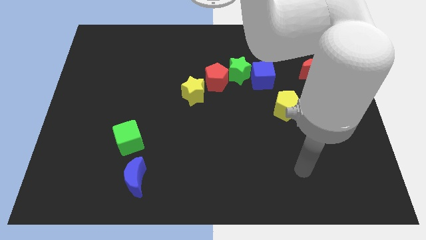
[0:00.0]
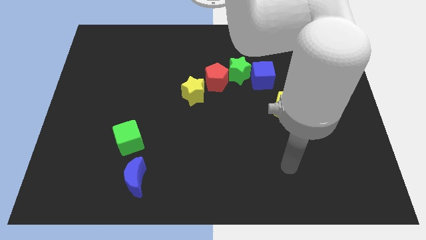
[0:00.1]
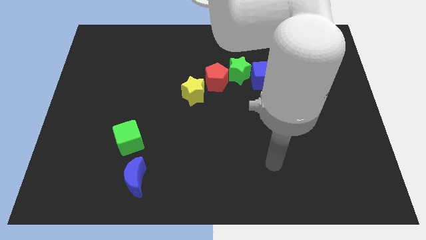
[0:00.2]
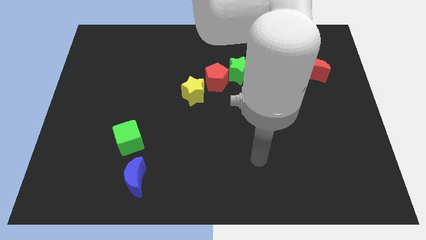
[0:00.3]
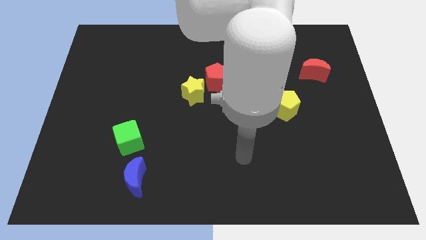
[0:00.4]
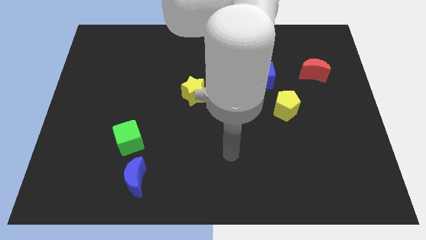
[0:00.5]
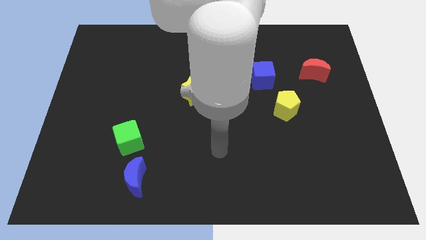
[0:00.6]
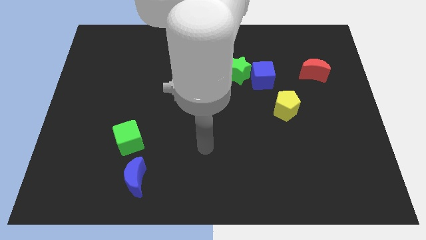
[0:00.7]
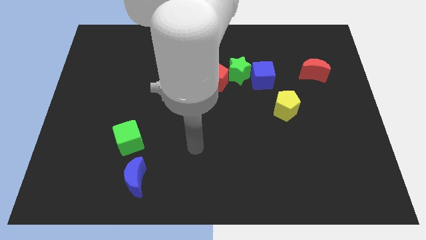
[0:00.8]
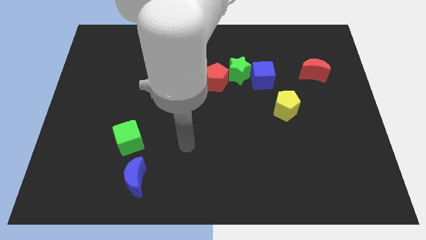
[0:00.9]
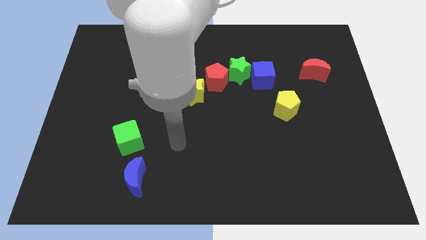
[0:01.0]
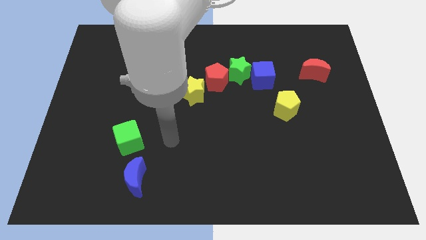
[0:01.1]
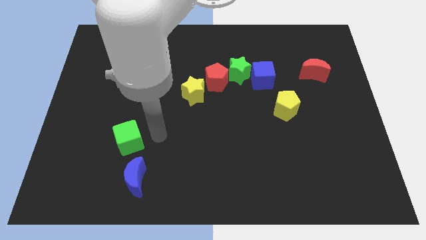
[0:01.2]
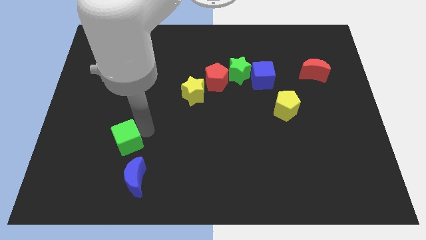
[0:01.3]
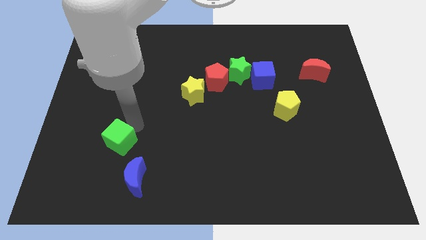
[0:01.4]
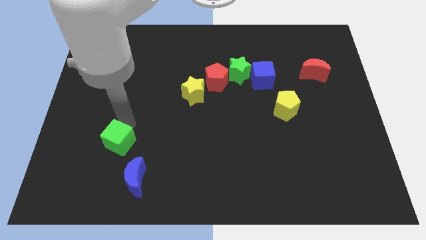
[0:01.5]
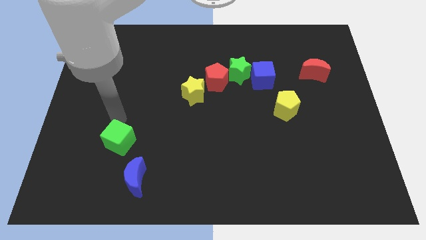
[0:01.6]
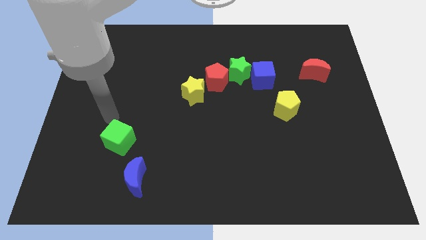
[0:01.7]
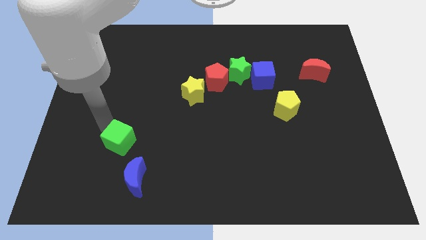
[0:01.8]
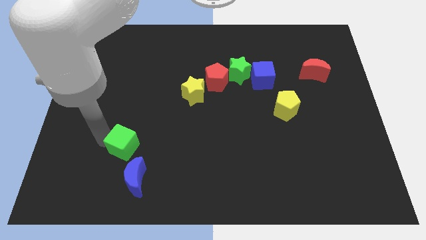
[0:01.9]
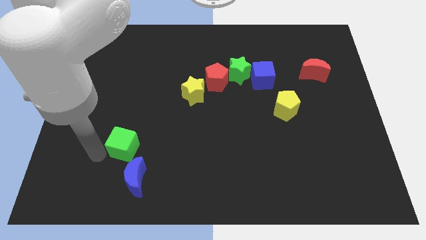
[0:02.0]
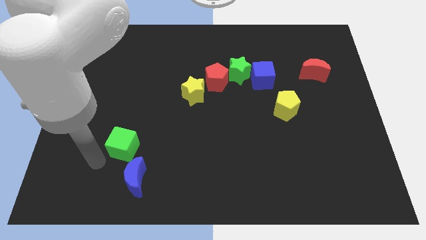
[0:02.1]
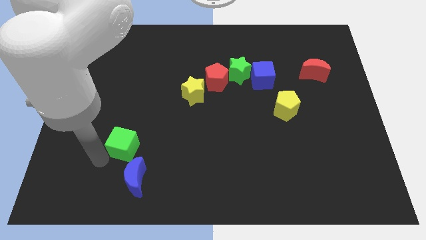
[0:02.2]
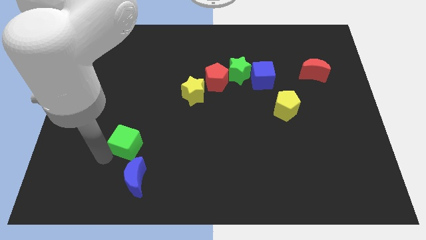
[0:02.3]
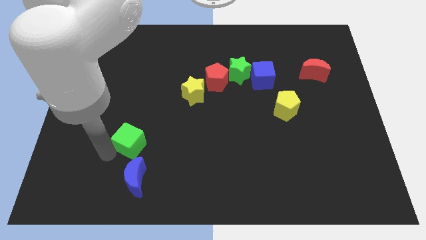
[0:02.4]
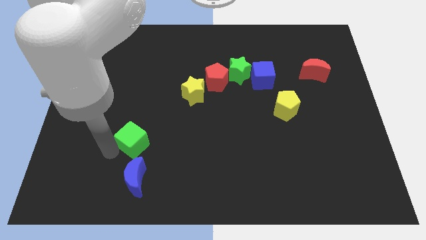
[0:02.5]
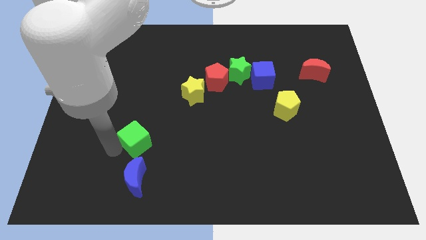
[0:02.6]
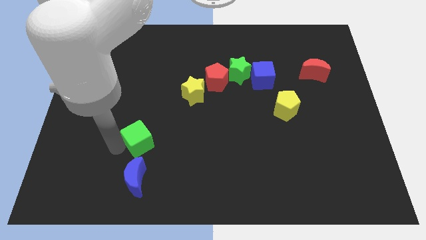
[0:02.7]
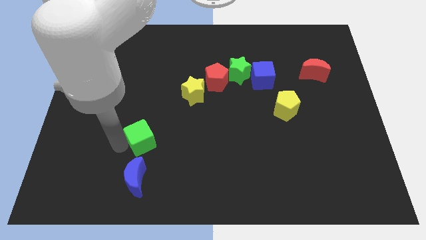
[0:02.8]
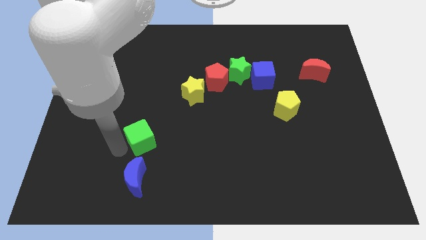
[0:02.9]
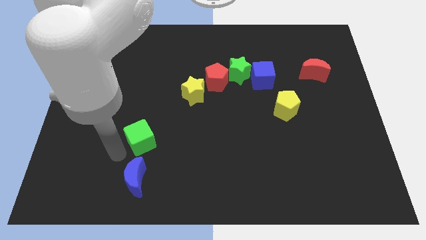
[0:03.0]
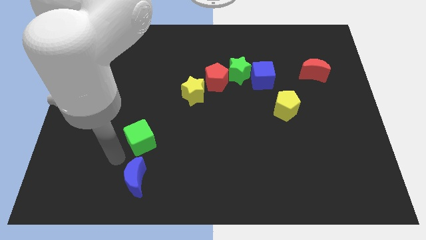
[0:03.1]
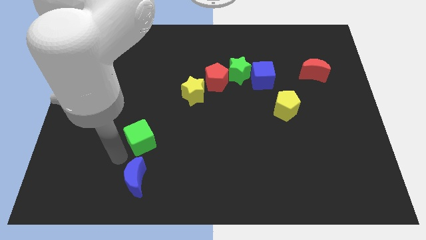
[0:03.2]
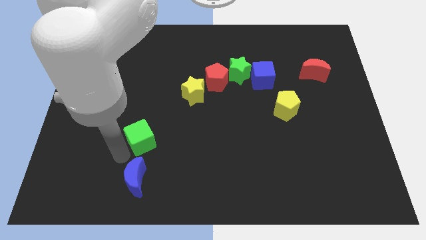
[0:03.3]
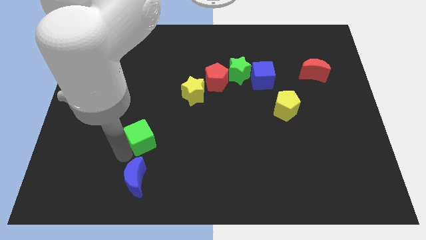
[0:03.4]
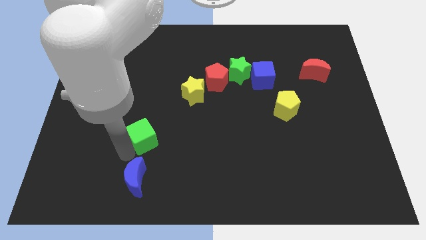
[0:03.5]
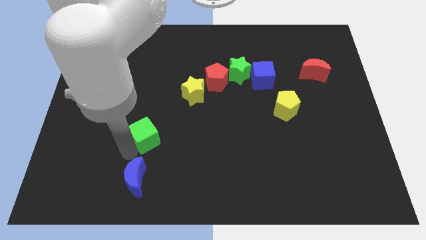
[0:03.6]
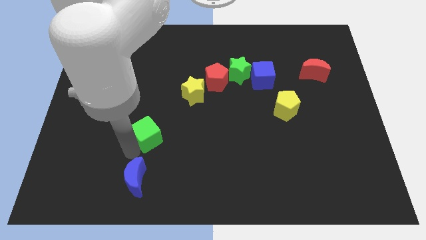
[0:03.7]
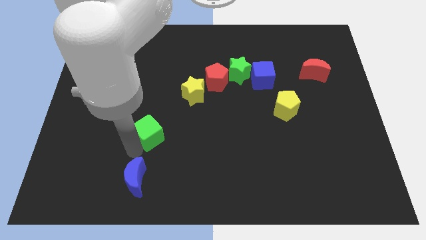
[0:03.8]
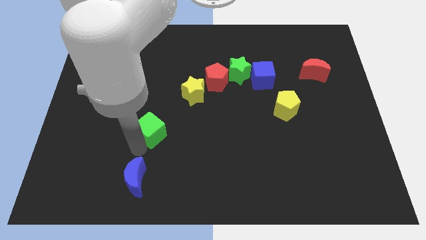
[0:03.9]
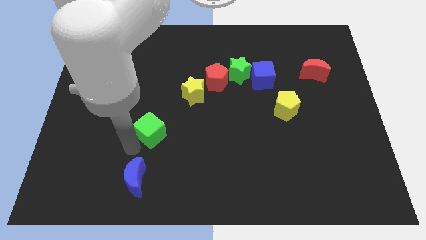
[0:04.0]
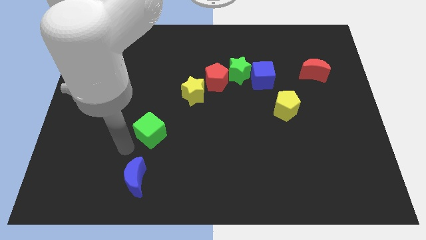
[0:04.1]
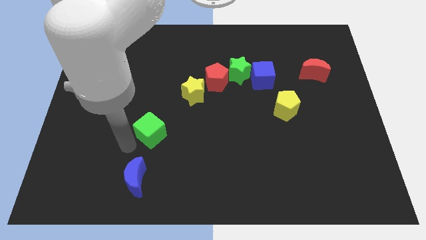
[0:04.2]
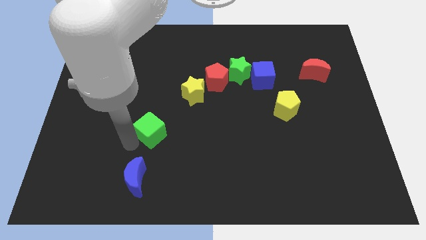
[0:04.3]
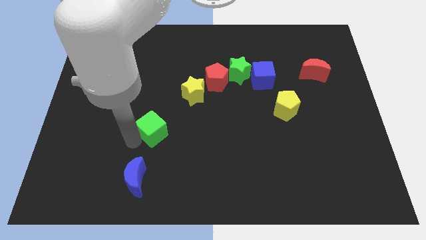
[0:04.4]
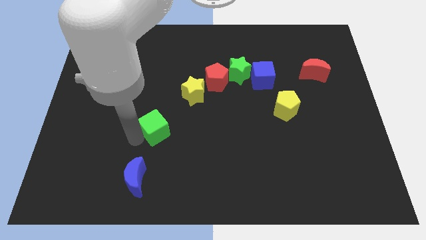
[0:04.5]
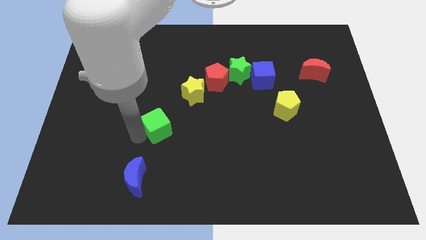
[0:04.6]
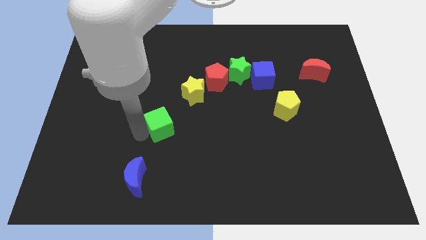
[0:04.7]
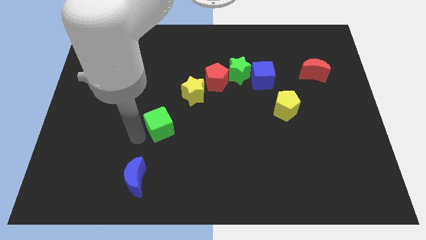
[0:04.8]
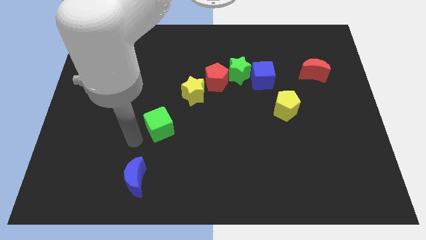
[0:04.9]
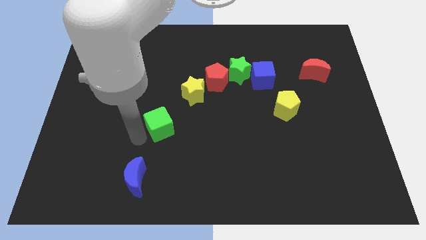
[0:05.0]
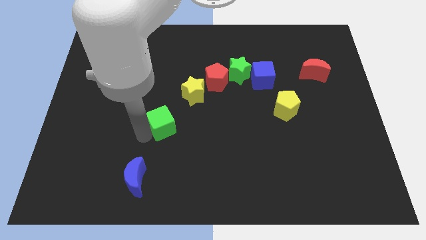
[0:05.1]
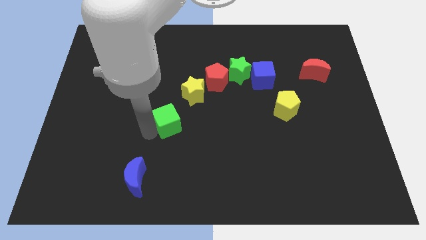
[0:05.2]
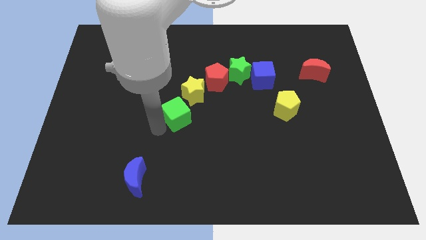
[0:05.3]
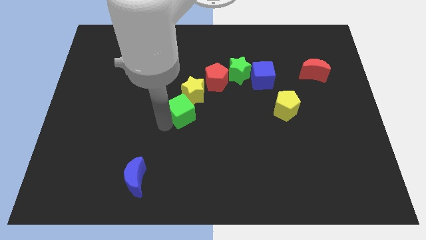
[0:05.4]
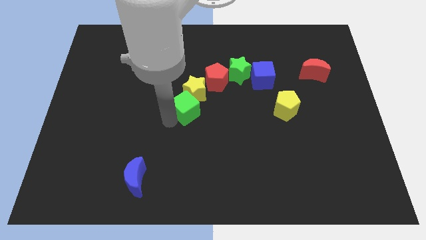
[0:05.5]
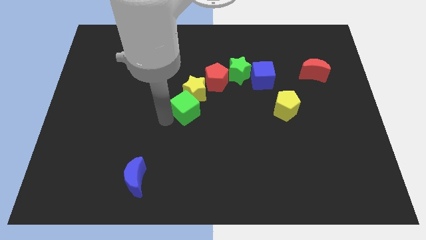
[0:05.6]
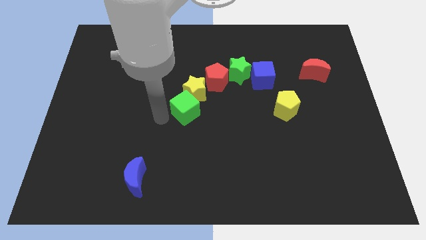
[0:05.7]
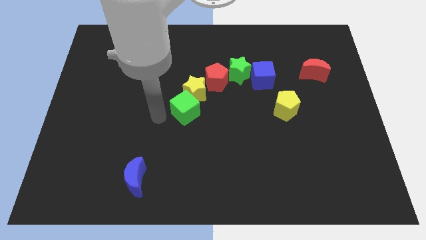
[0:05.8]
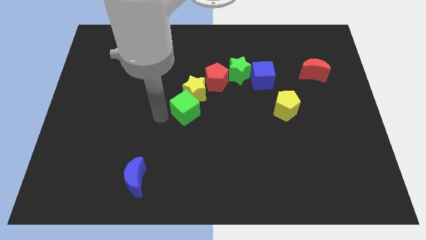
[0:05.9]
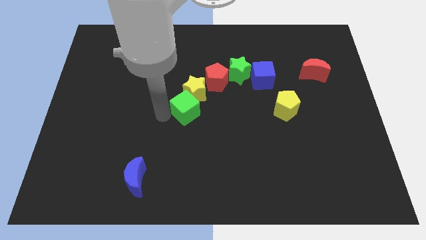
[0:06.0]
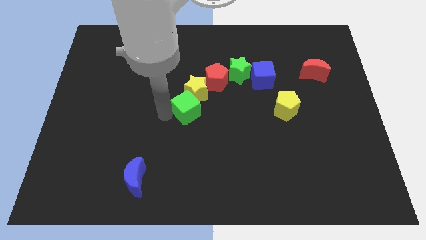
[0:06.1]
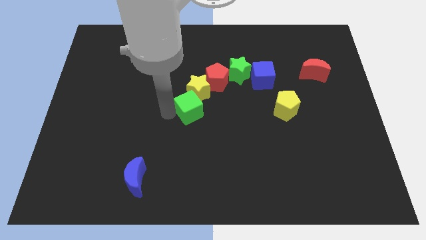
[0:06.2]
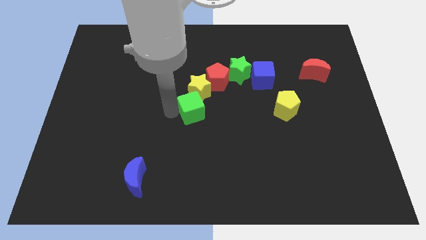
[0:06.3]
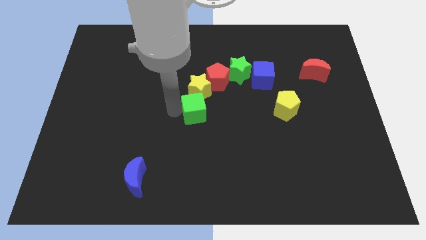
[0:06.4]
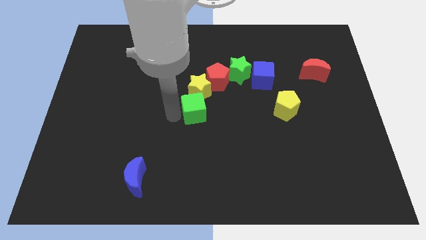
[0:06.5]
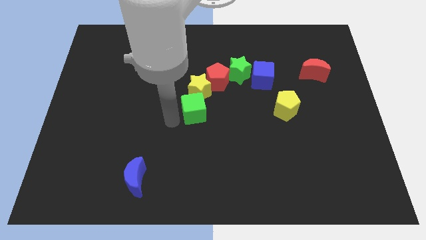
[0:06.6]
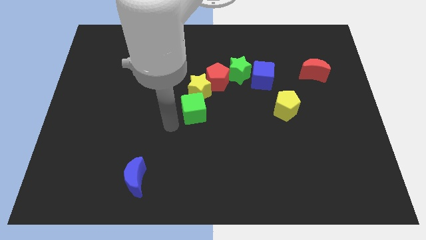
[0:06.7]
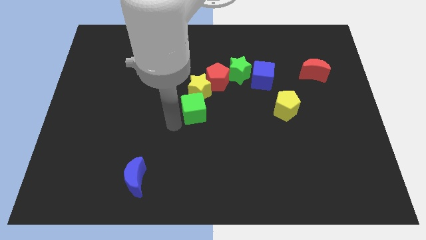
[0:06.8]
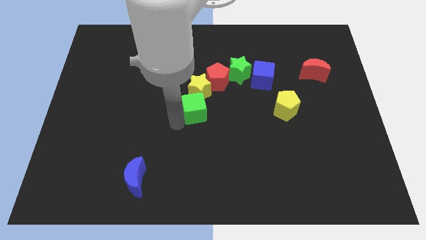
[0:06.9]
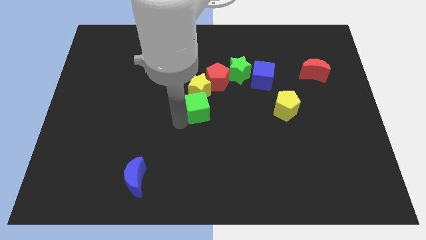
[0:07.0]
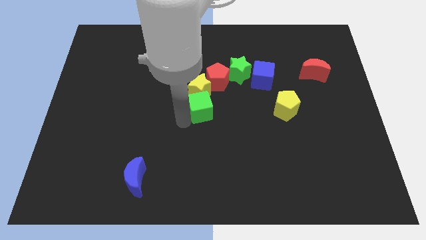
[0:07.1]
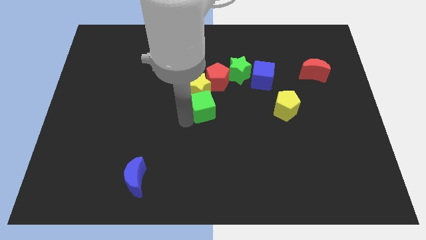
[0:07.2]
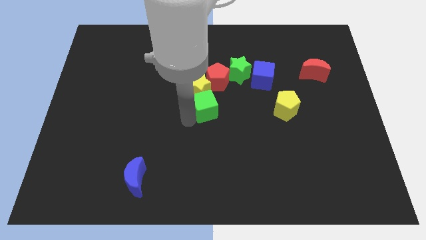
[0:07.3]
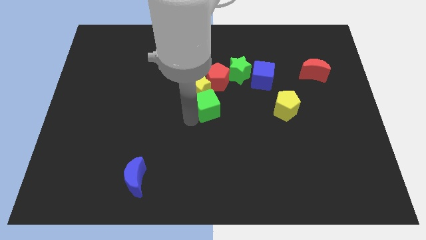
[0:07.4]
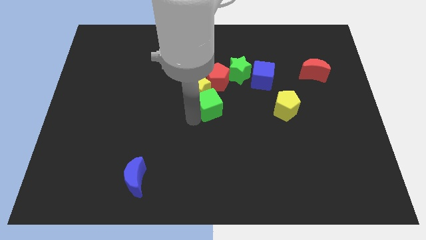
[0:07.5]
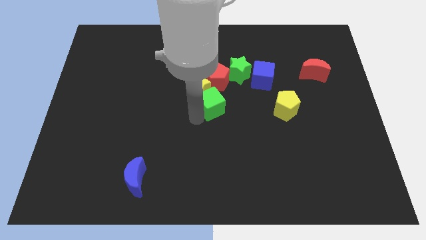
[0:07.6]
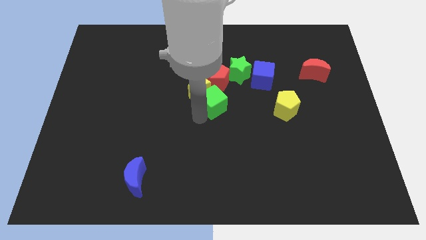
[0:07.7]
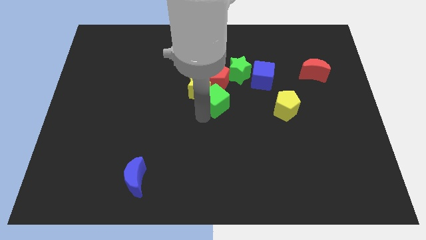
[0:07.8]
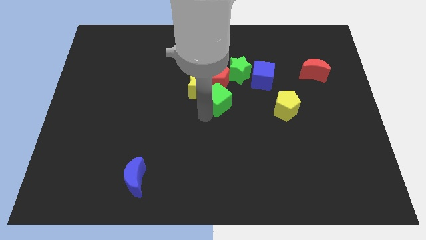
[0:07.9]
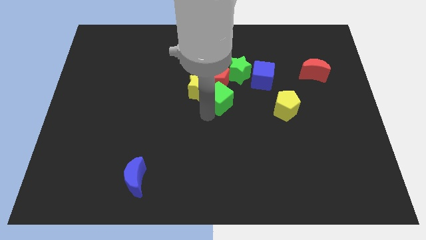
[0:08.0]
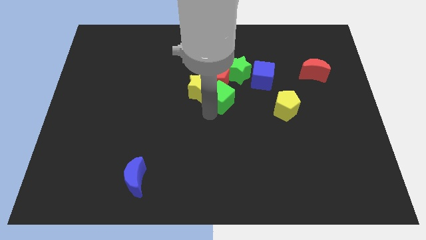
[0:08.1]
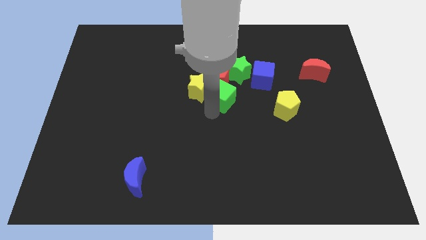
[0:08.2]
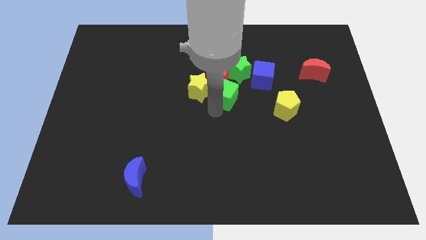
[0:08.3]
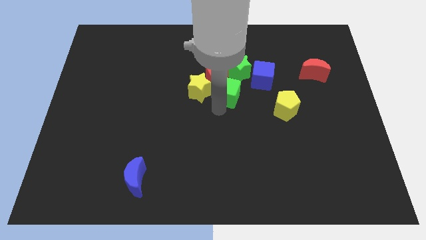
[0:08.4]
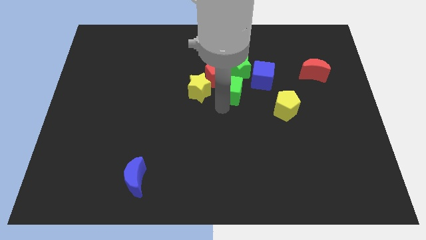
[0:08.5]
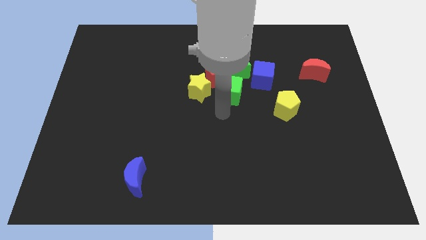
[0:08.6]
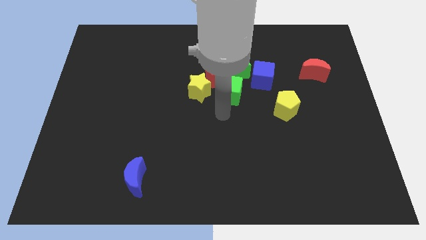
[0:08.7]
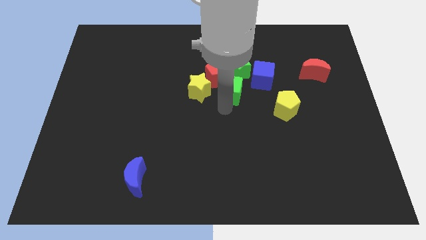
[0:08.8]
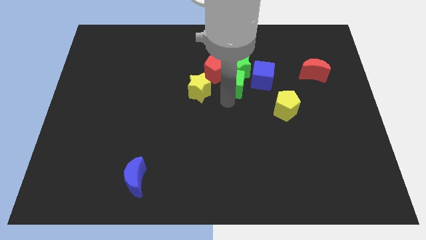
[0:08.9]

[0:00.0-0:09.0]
slide the green cube to the green star

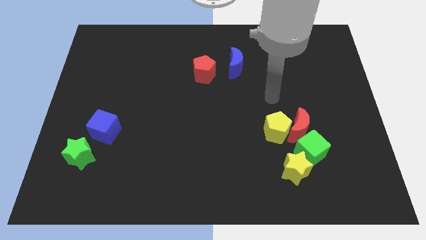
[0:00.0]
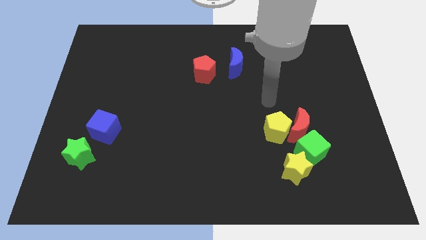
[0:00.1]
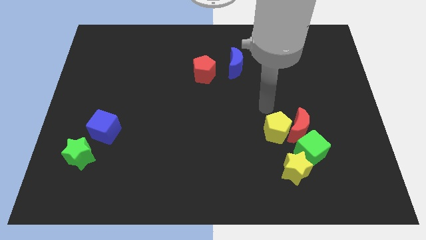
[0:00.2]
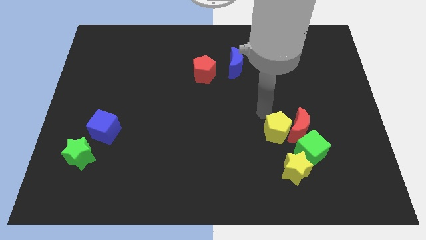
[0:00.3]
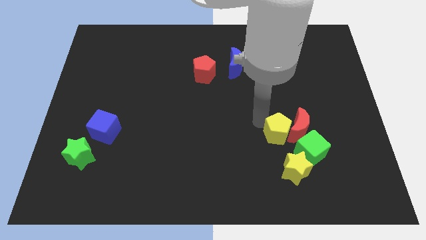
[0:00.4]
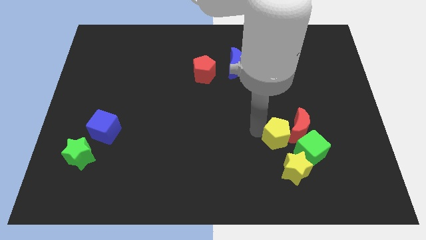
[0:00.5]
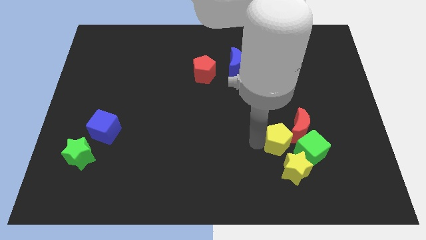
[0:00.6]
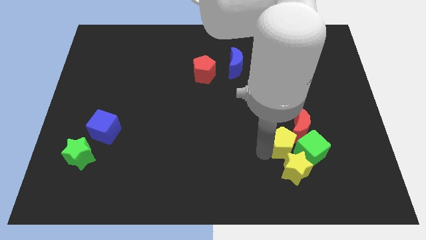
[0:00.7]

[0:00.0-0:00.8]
move the yellow star towards the yellow pentagon
